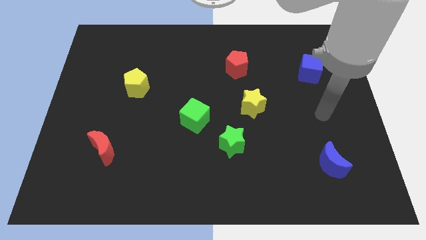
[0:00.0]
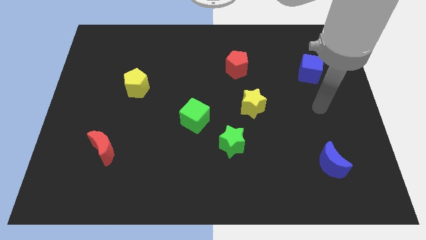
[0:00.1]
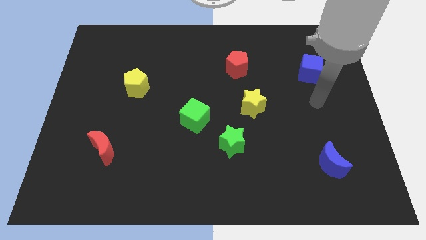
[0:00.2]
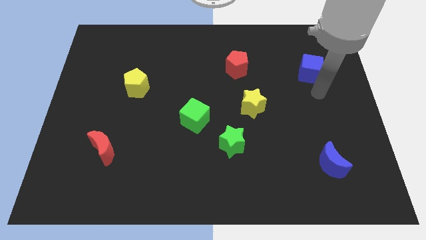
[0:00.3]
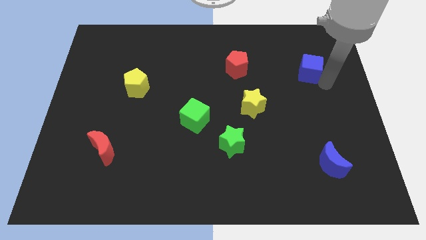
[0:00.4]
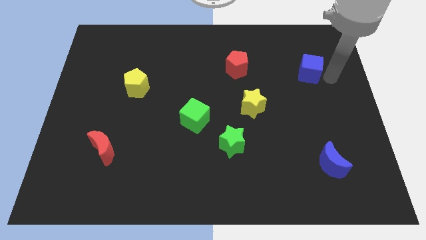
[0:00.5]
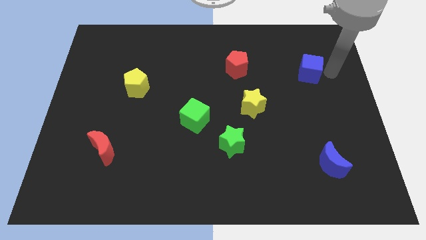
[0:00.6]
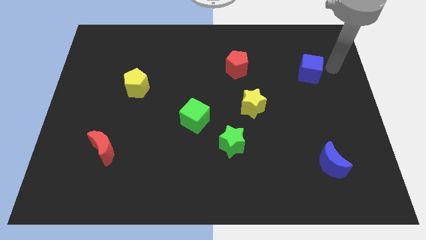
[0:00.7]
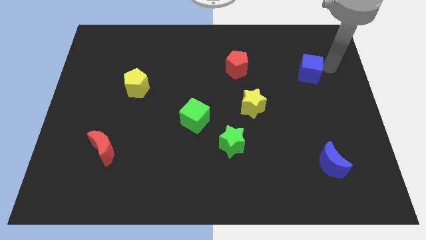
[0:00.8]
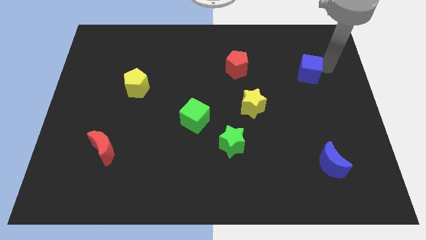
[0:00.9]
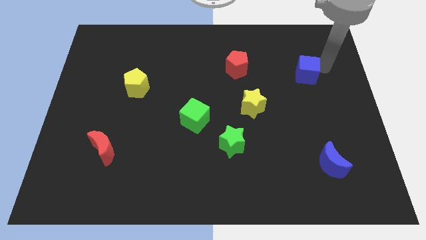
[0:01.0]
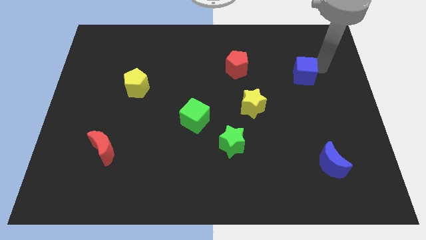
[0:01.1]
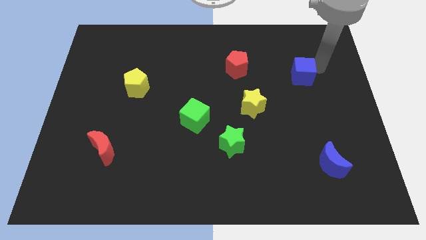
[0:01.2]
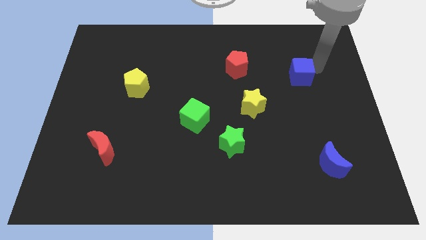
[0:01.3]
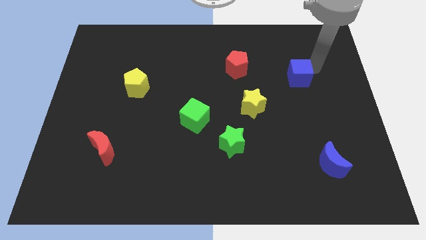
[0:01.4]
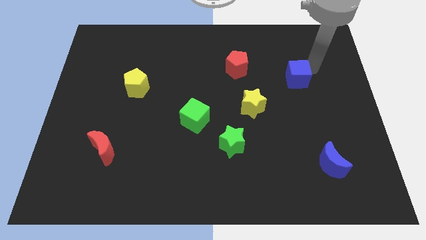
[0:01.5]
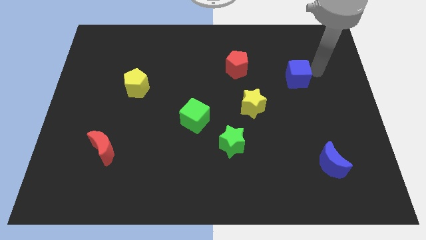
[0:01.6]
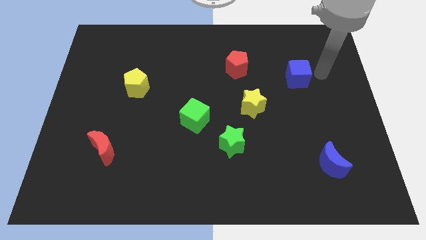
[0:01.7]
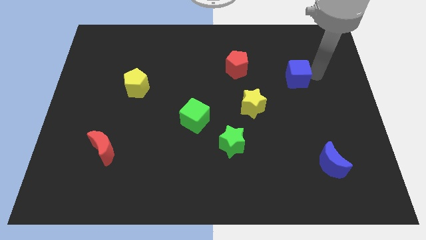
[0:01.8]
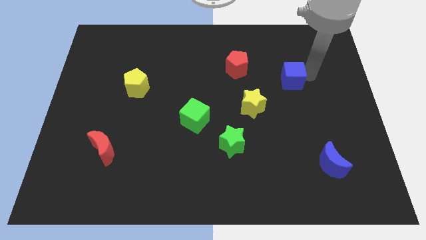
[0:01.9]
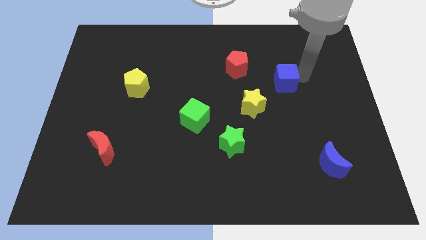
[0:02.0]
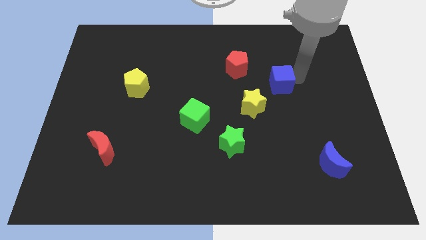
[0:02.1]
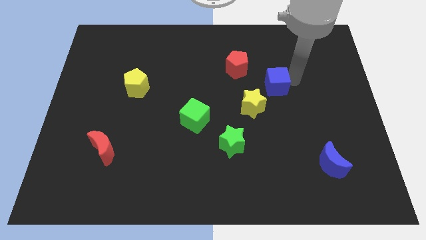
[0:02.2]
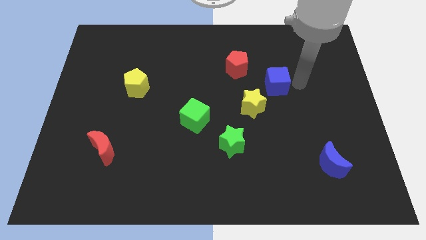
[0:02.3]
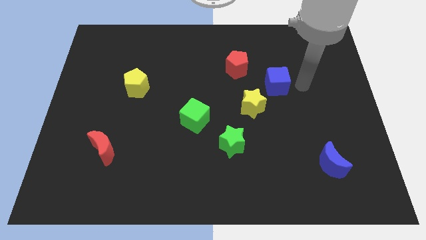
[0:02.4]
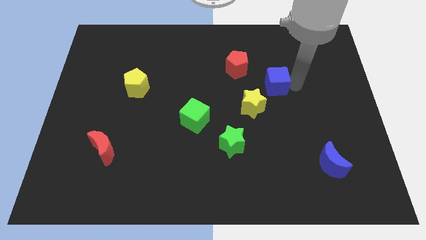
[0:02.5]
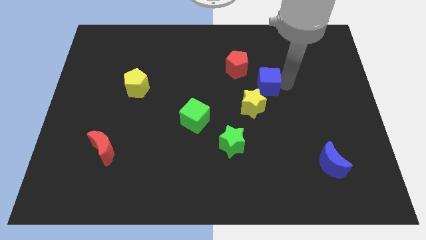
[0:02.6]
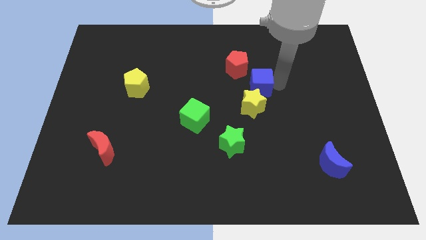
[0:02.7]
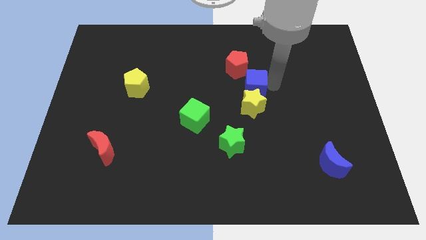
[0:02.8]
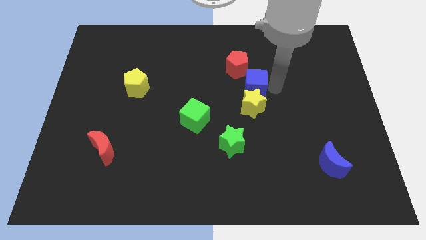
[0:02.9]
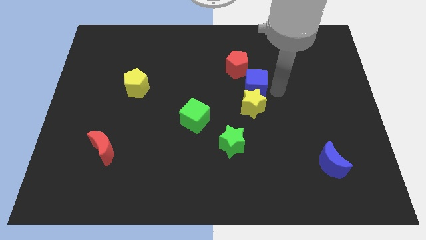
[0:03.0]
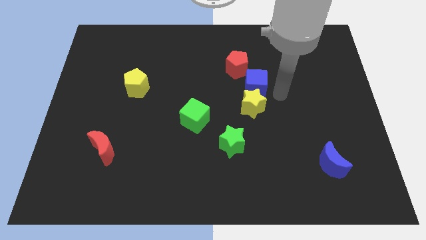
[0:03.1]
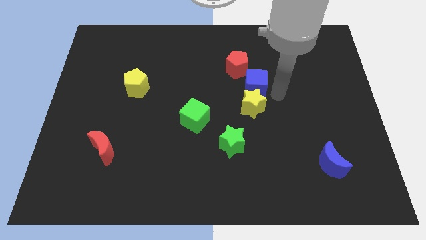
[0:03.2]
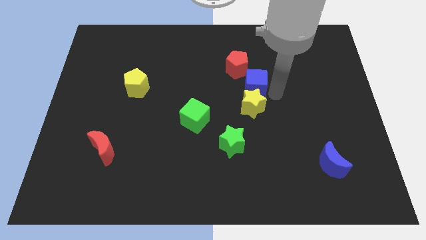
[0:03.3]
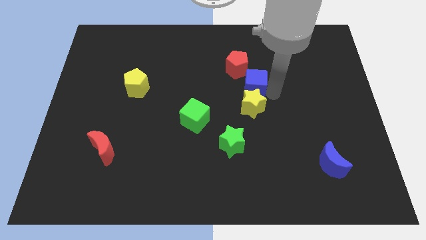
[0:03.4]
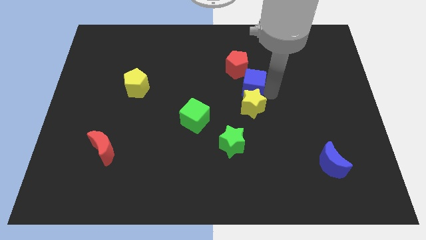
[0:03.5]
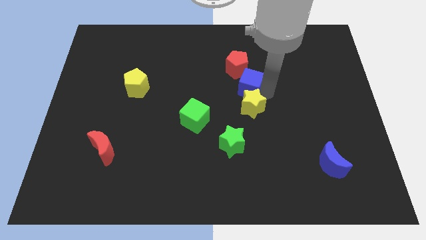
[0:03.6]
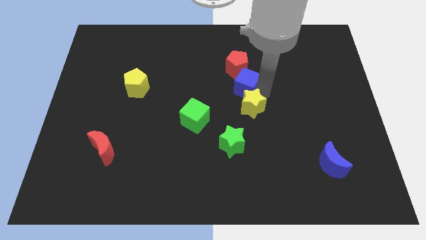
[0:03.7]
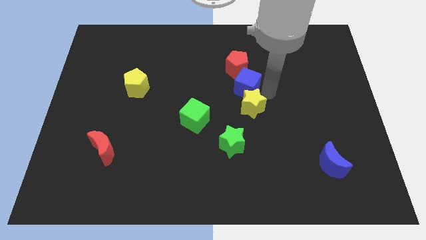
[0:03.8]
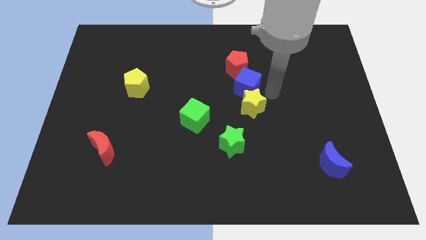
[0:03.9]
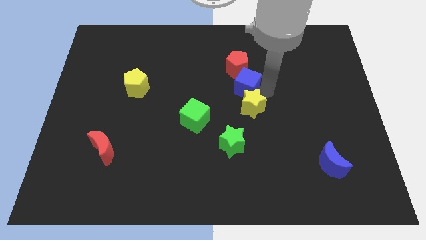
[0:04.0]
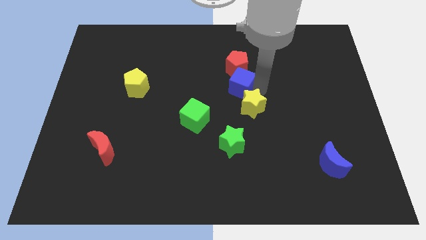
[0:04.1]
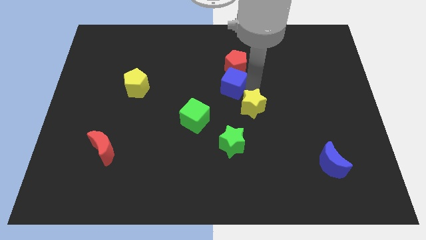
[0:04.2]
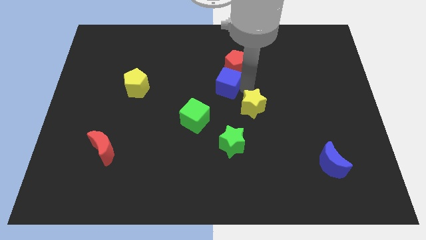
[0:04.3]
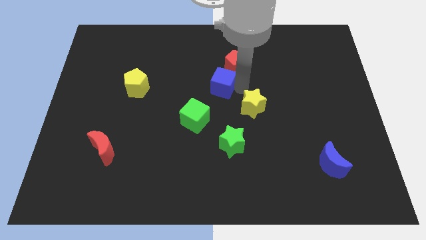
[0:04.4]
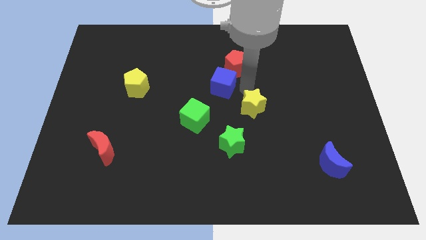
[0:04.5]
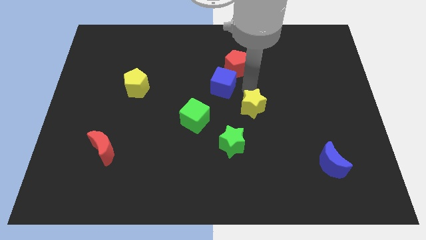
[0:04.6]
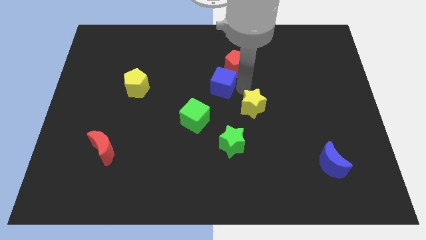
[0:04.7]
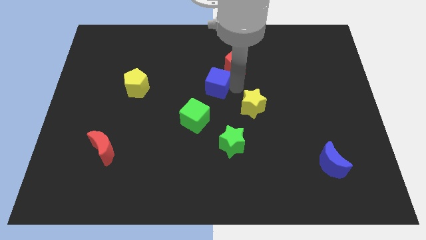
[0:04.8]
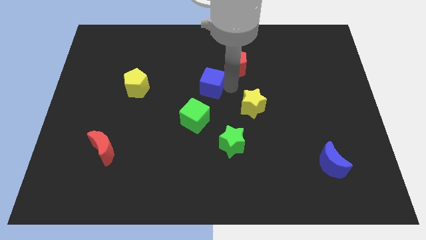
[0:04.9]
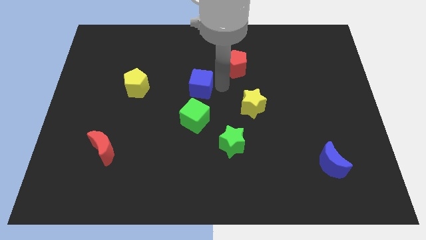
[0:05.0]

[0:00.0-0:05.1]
slide the blue cube right of the yellow pentagon

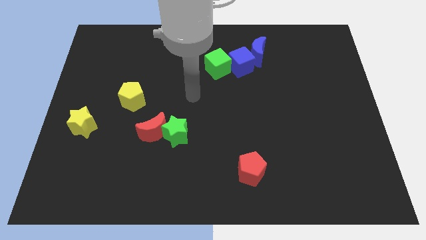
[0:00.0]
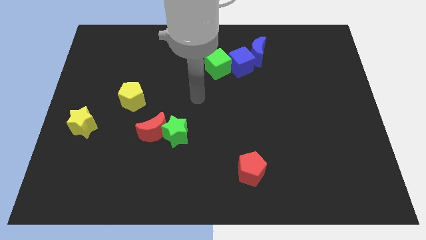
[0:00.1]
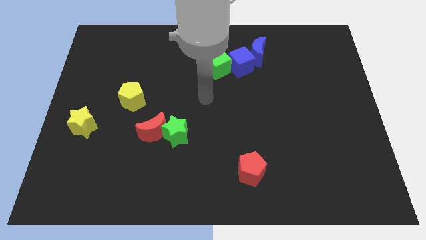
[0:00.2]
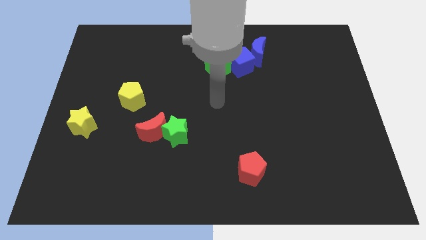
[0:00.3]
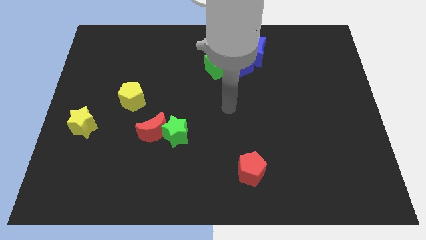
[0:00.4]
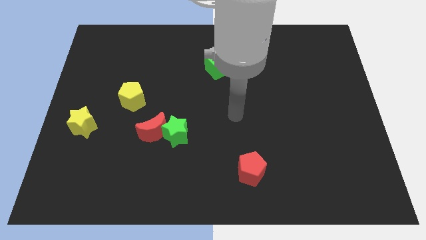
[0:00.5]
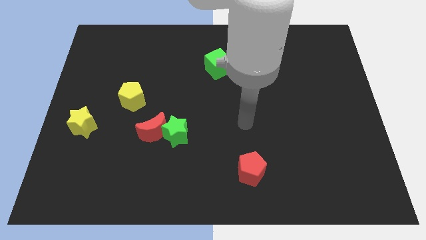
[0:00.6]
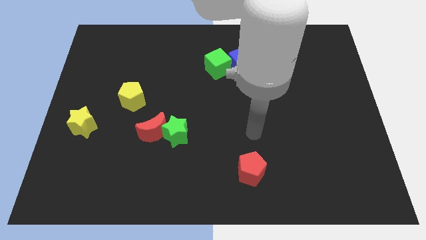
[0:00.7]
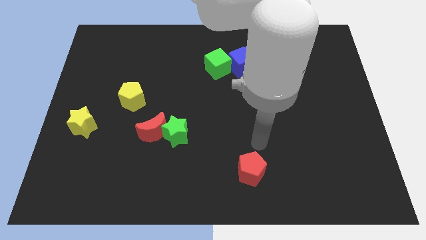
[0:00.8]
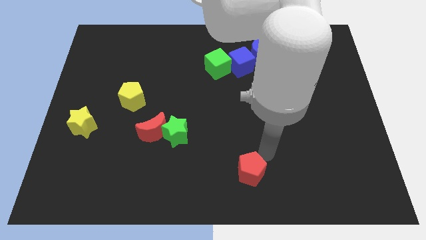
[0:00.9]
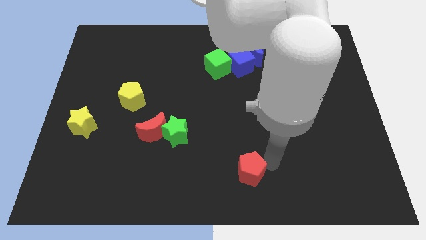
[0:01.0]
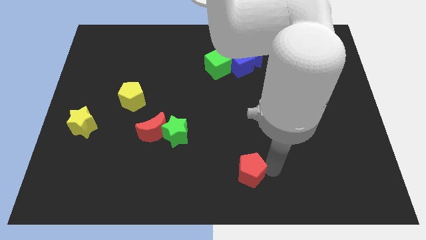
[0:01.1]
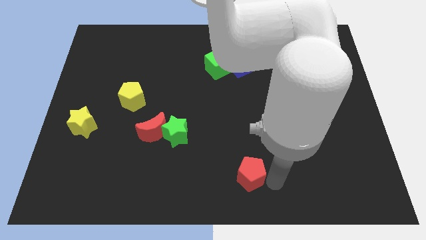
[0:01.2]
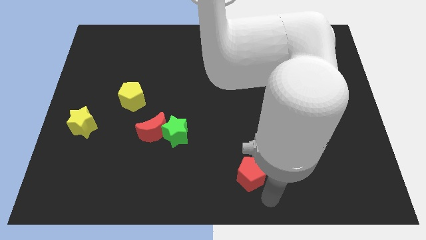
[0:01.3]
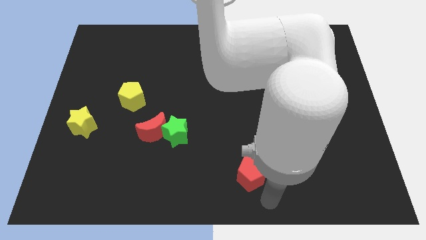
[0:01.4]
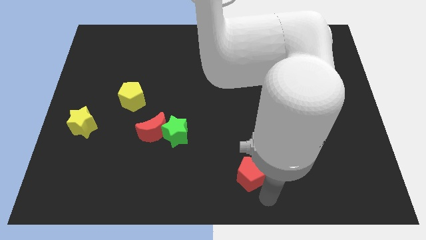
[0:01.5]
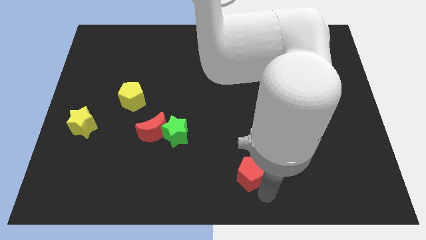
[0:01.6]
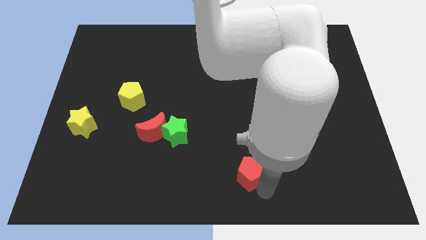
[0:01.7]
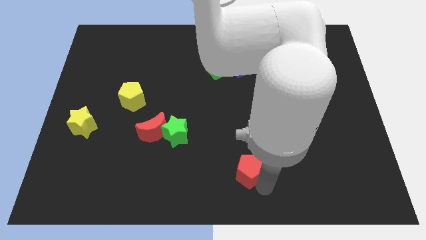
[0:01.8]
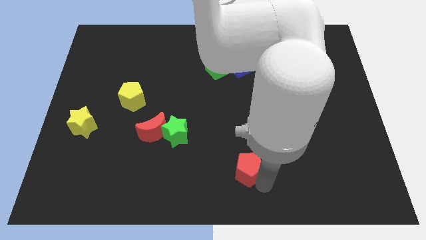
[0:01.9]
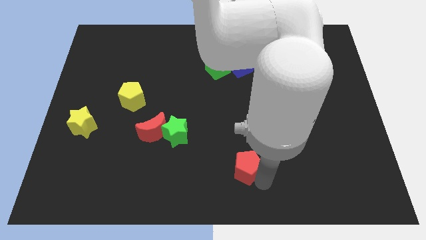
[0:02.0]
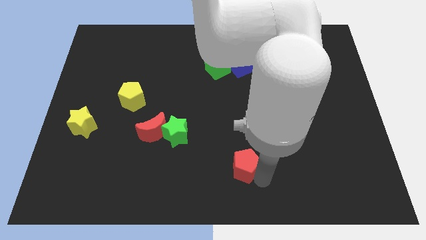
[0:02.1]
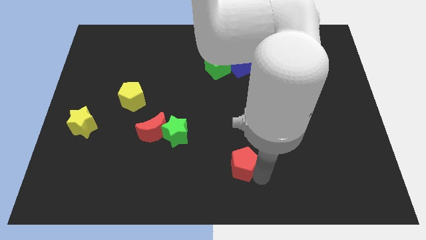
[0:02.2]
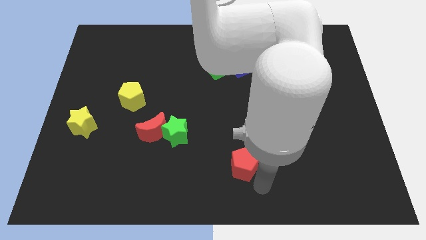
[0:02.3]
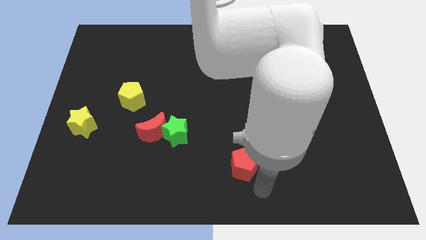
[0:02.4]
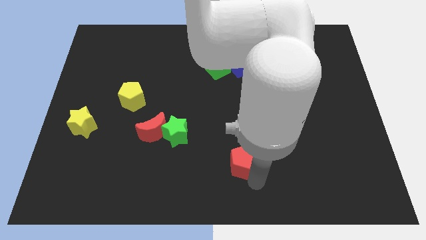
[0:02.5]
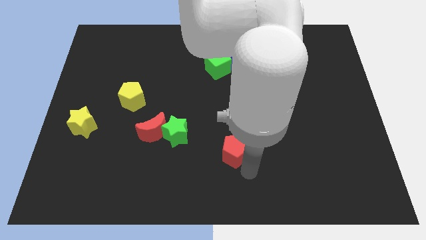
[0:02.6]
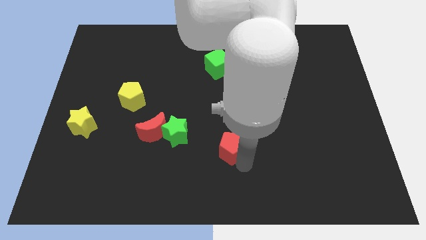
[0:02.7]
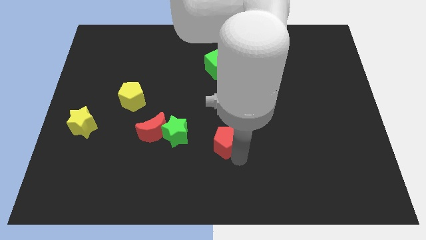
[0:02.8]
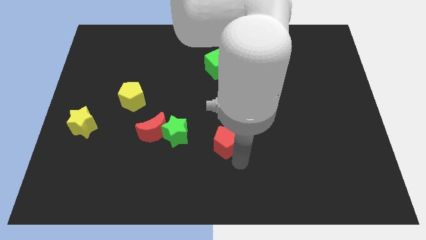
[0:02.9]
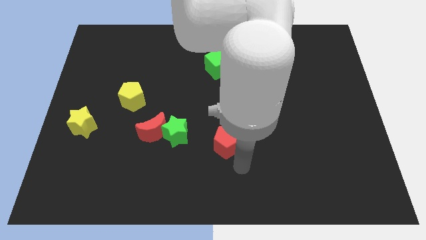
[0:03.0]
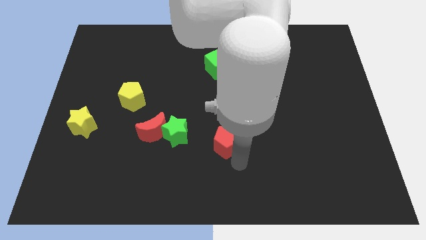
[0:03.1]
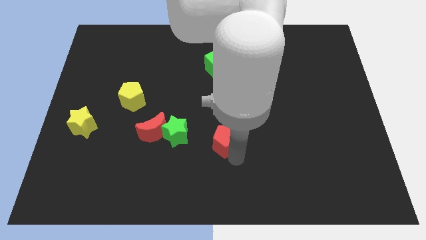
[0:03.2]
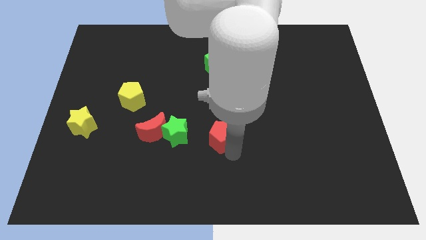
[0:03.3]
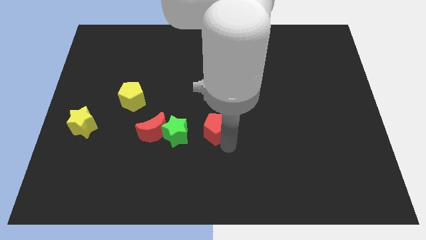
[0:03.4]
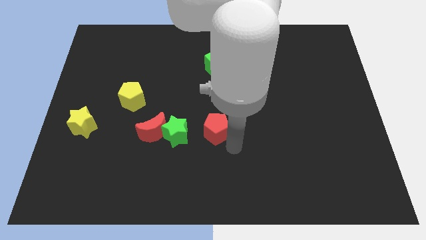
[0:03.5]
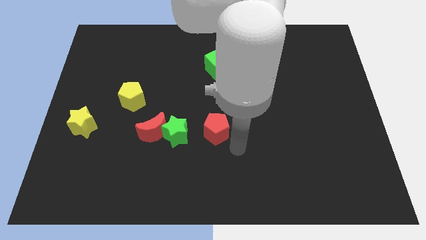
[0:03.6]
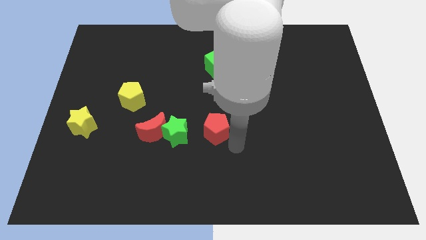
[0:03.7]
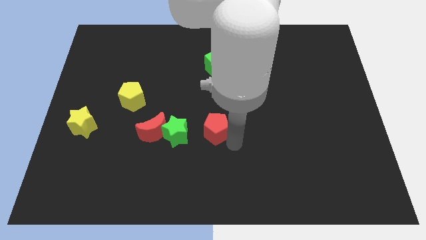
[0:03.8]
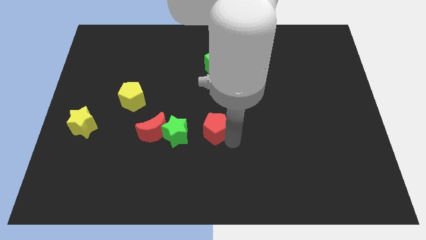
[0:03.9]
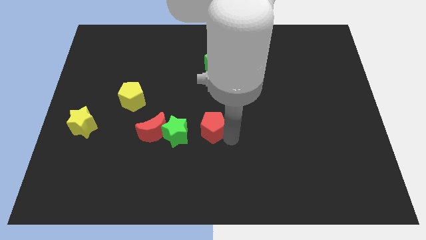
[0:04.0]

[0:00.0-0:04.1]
slide the red pentagon to the top right side of the green star
